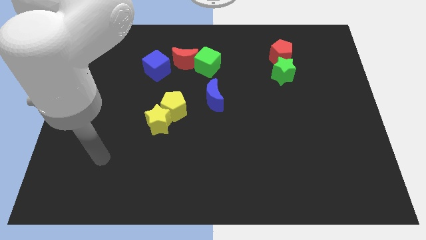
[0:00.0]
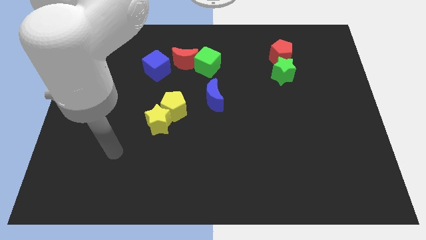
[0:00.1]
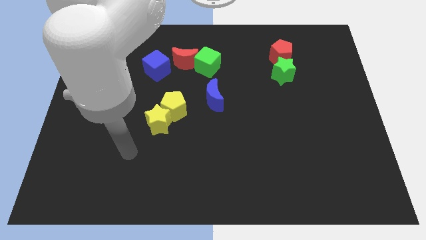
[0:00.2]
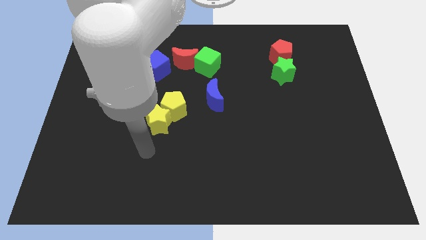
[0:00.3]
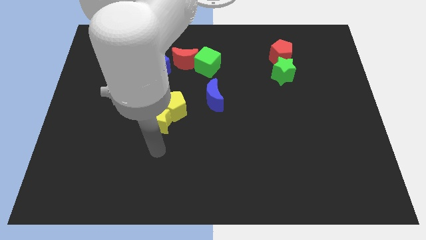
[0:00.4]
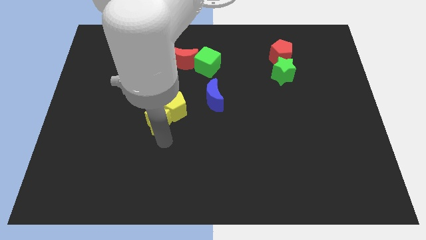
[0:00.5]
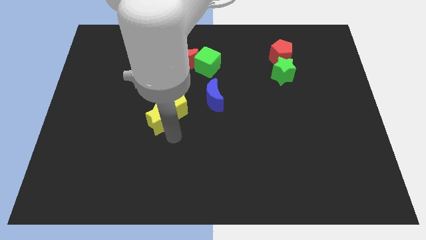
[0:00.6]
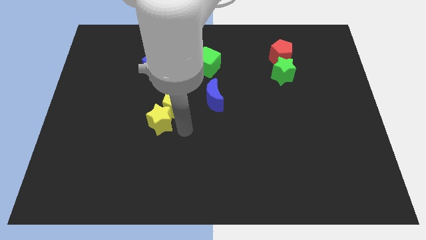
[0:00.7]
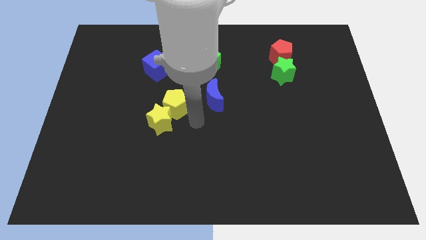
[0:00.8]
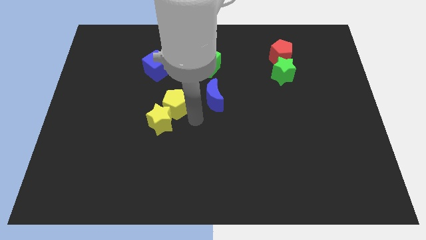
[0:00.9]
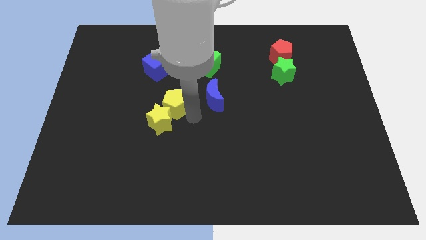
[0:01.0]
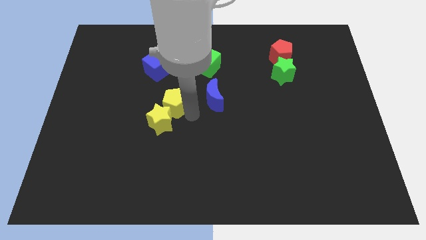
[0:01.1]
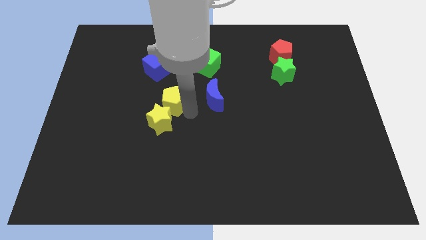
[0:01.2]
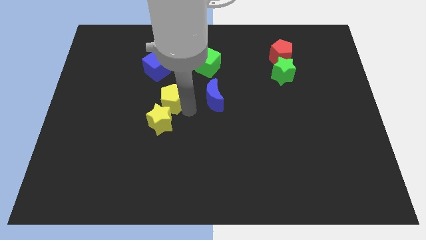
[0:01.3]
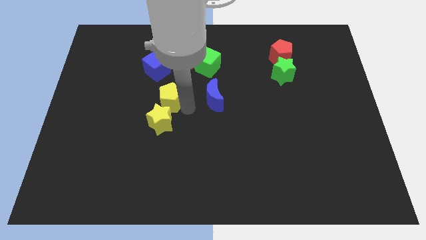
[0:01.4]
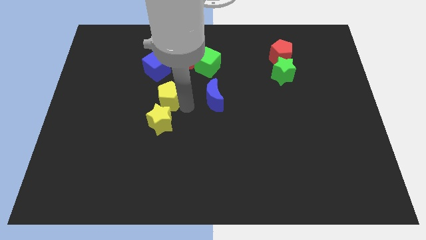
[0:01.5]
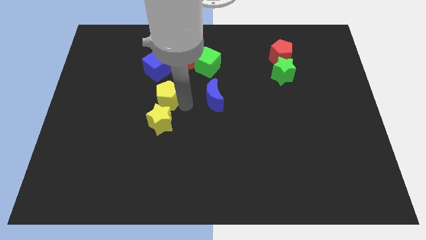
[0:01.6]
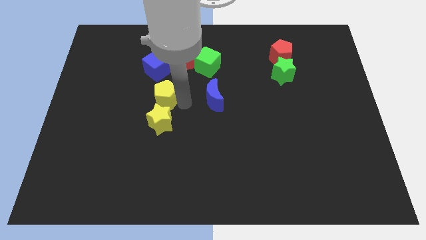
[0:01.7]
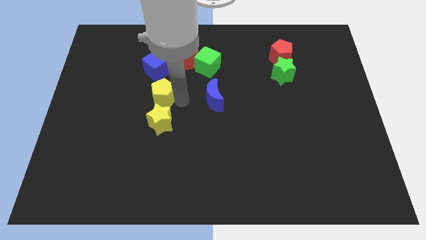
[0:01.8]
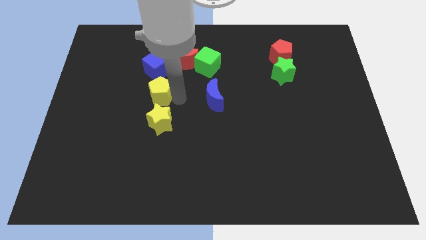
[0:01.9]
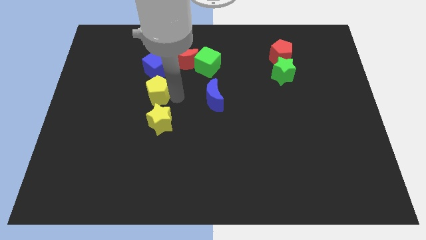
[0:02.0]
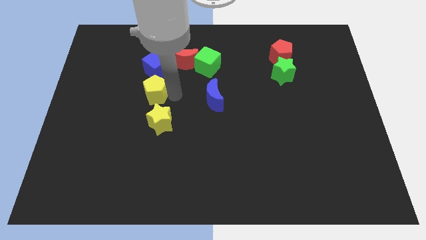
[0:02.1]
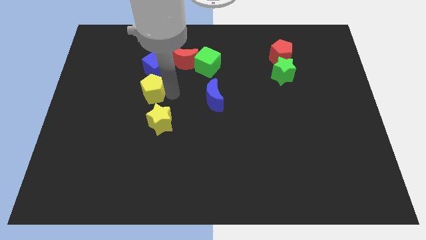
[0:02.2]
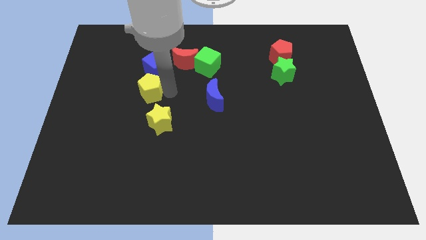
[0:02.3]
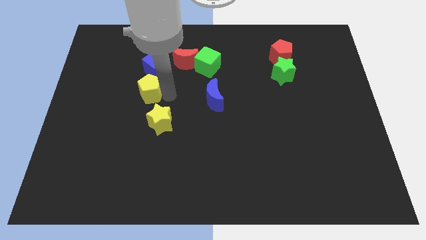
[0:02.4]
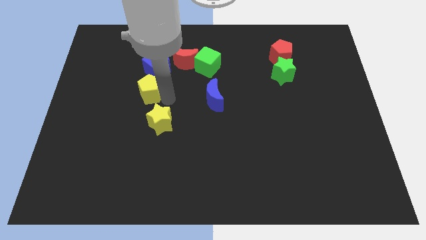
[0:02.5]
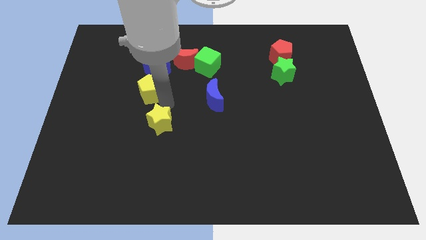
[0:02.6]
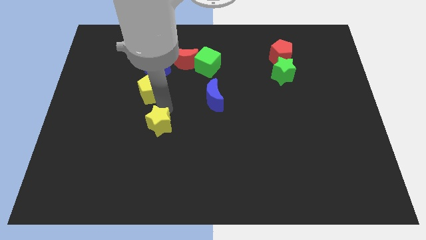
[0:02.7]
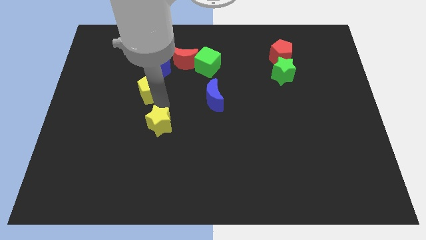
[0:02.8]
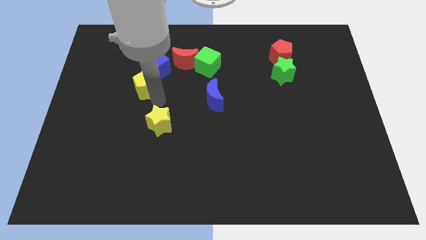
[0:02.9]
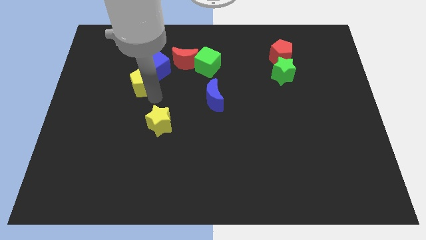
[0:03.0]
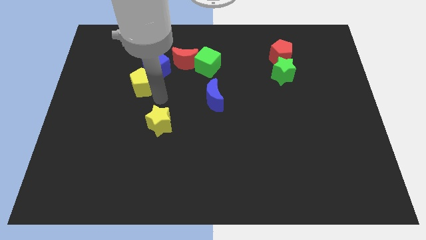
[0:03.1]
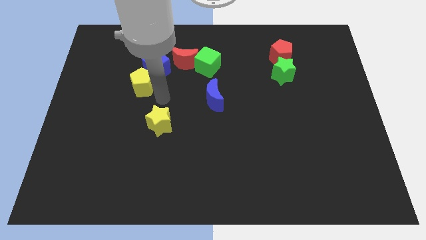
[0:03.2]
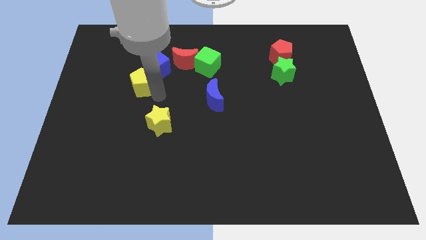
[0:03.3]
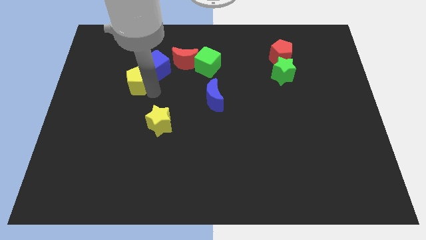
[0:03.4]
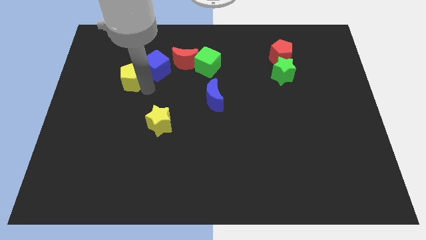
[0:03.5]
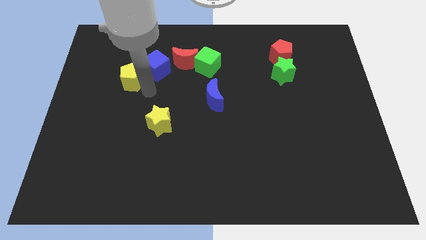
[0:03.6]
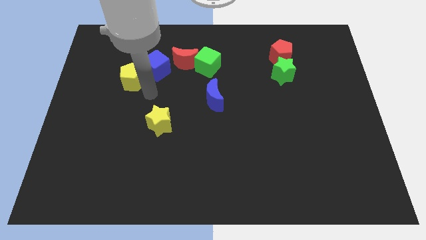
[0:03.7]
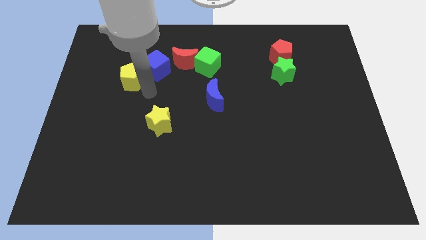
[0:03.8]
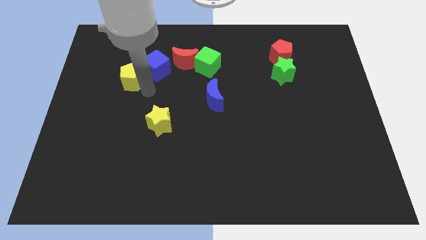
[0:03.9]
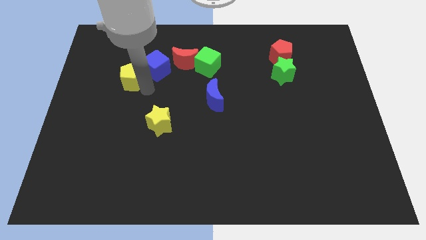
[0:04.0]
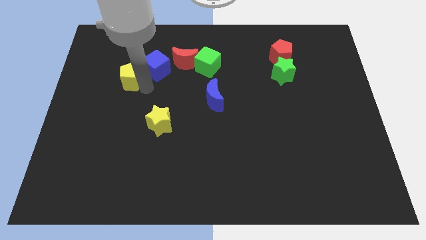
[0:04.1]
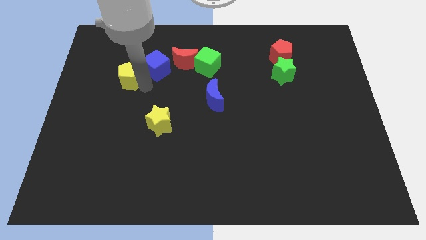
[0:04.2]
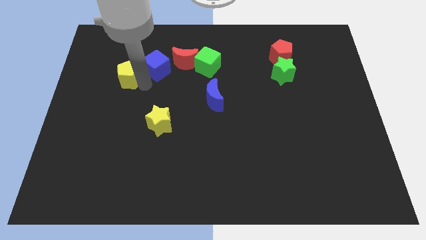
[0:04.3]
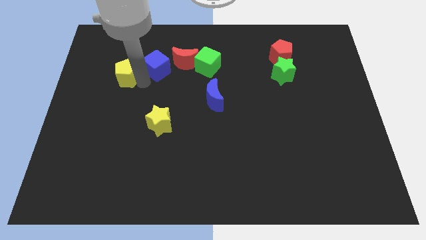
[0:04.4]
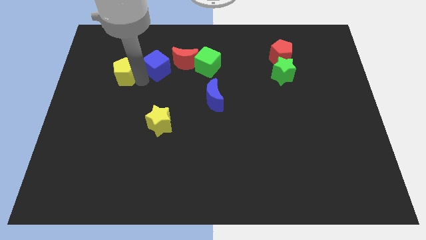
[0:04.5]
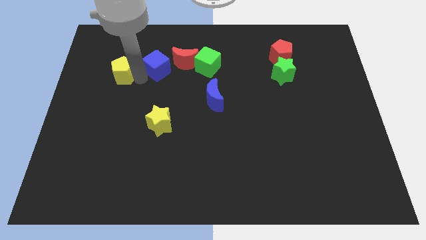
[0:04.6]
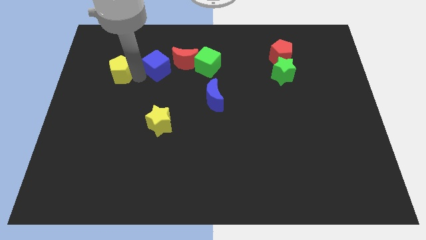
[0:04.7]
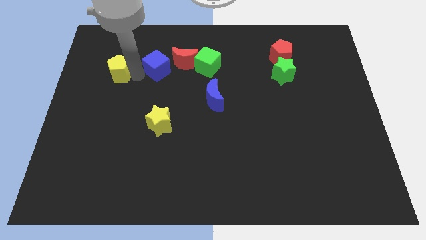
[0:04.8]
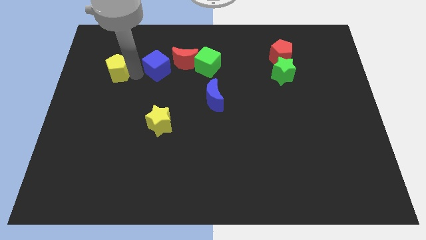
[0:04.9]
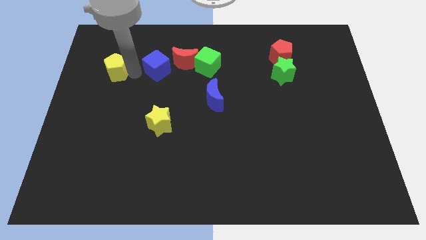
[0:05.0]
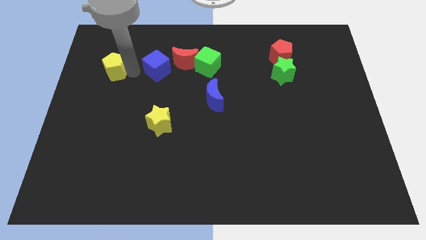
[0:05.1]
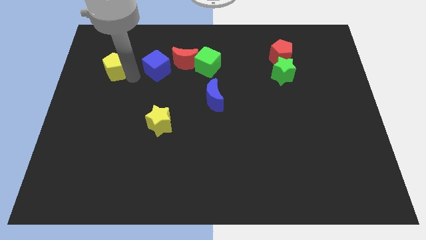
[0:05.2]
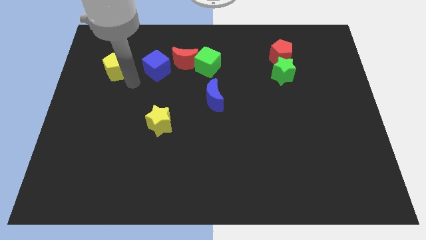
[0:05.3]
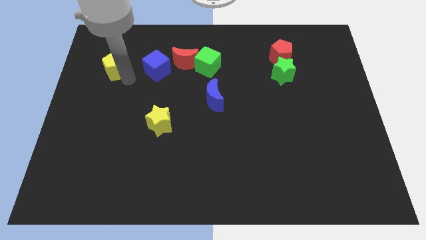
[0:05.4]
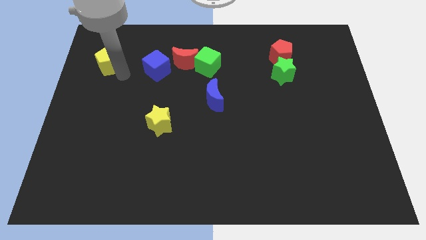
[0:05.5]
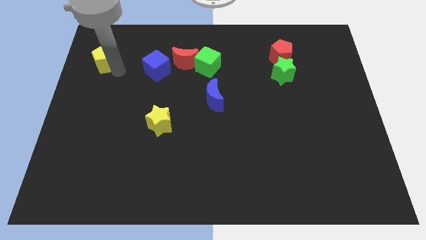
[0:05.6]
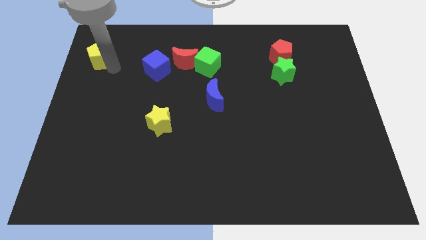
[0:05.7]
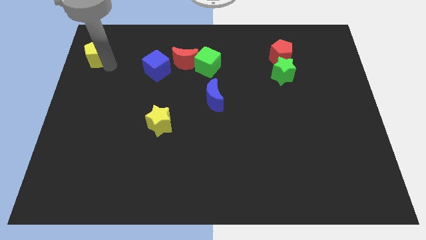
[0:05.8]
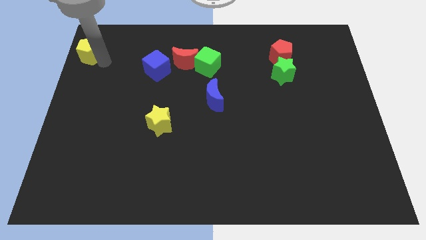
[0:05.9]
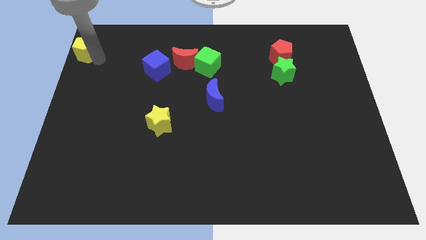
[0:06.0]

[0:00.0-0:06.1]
slide the yellow pentagon to the upper left corner

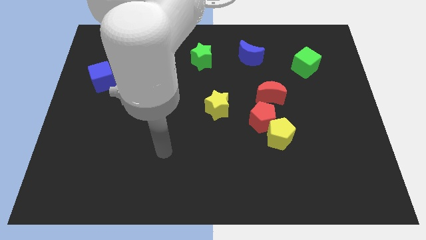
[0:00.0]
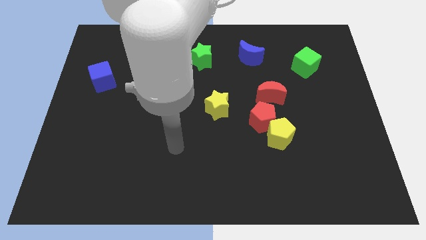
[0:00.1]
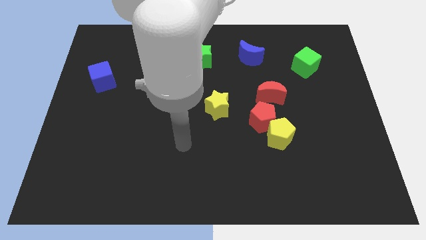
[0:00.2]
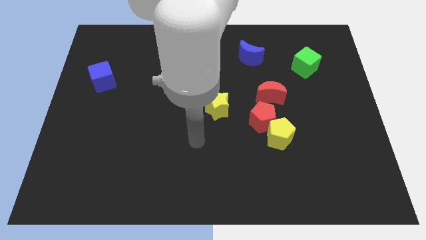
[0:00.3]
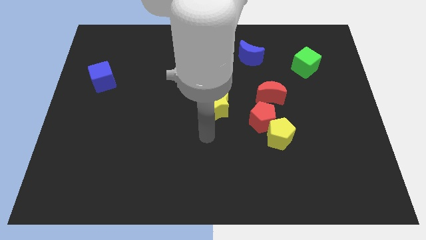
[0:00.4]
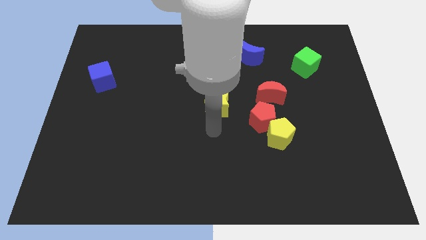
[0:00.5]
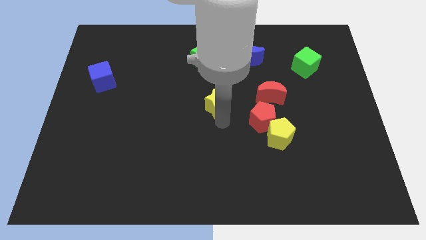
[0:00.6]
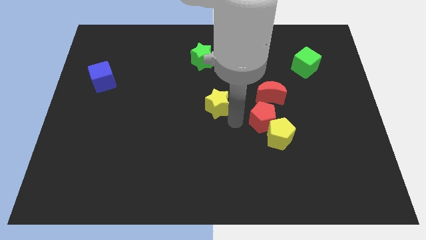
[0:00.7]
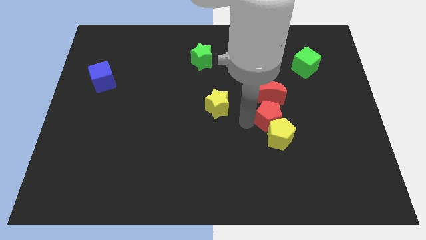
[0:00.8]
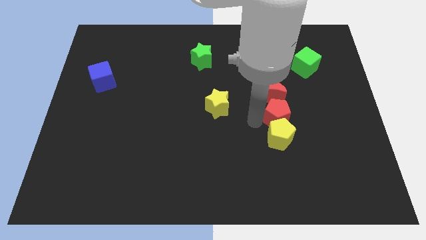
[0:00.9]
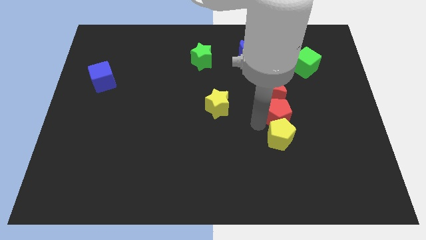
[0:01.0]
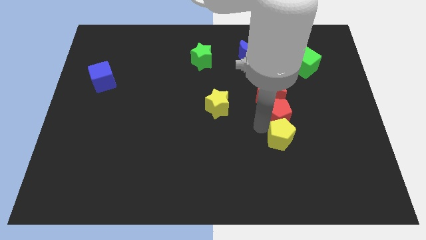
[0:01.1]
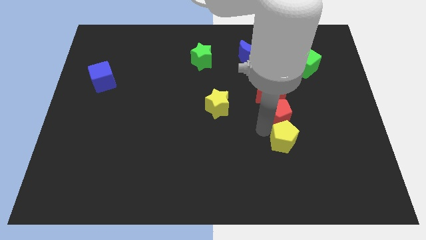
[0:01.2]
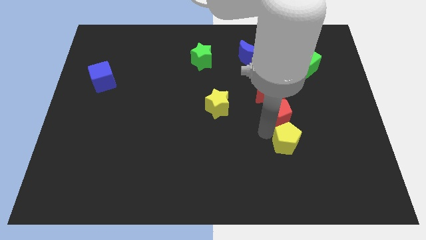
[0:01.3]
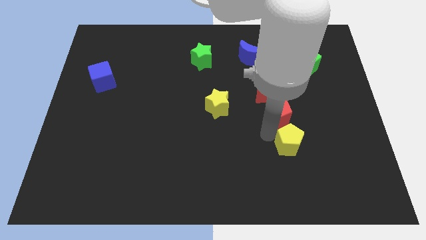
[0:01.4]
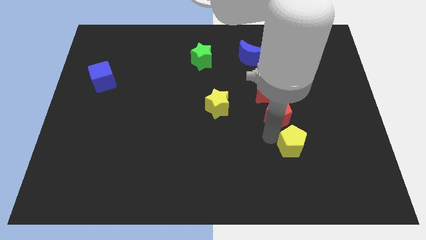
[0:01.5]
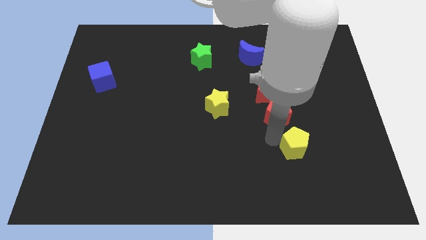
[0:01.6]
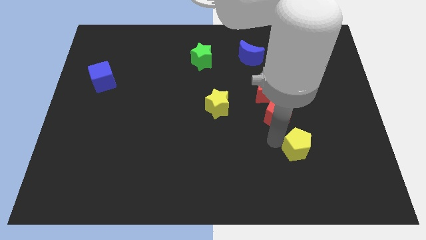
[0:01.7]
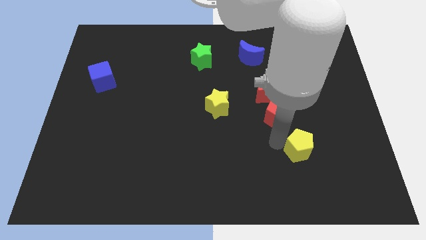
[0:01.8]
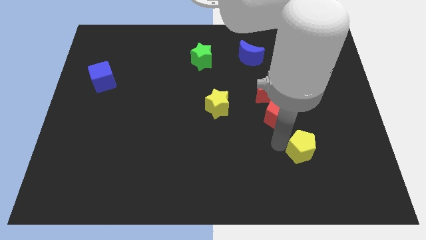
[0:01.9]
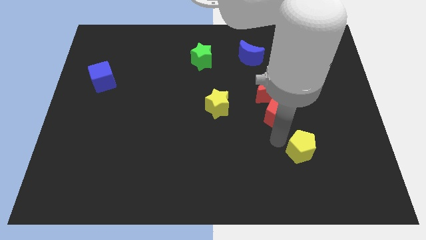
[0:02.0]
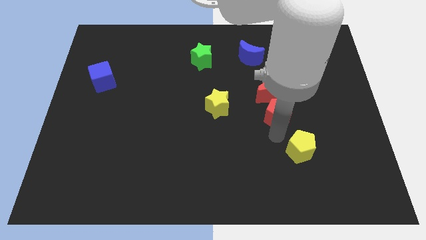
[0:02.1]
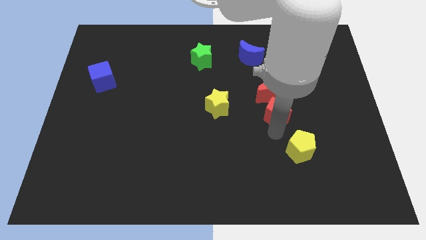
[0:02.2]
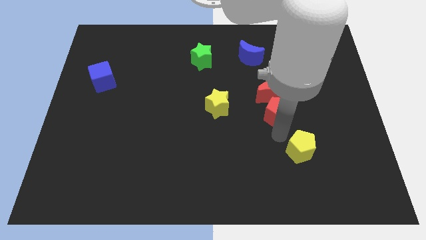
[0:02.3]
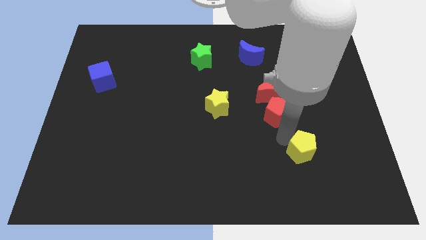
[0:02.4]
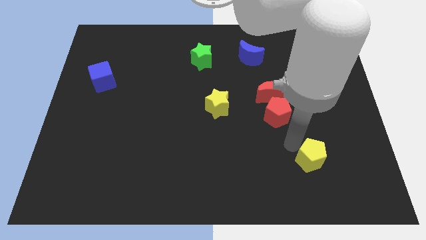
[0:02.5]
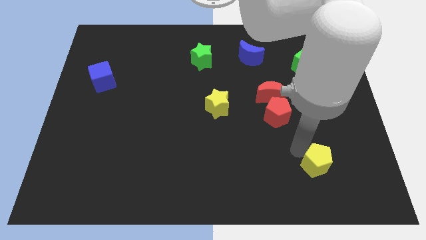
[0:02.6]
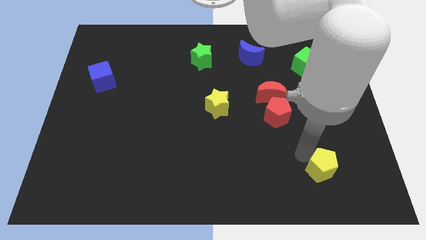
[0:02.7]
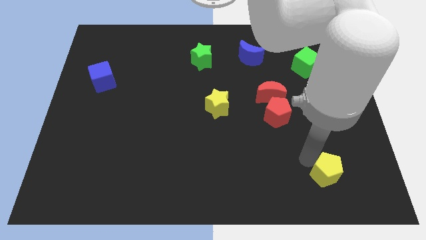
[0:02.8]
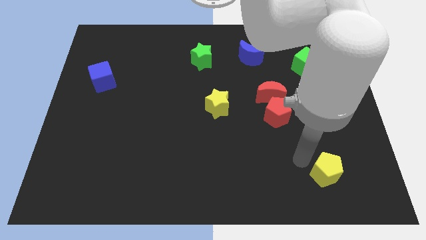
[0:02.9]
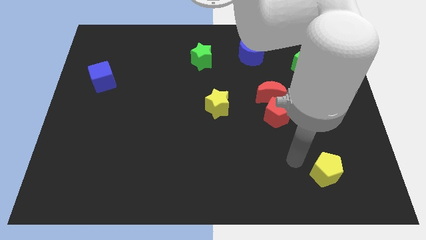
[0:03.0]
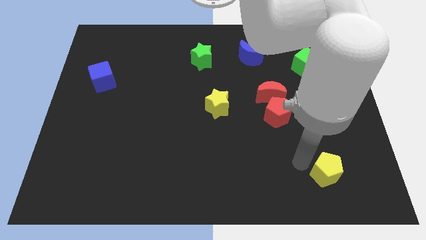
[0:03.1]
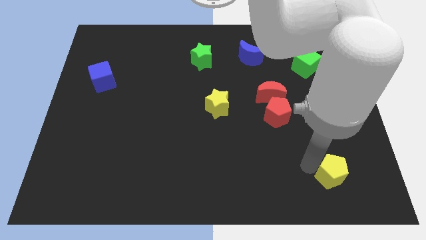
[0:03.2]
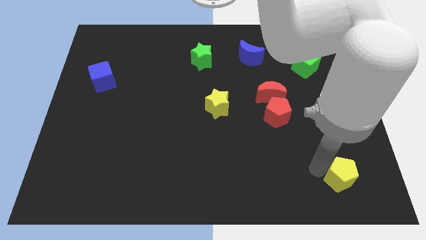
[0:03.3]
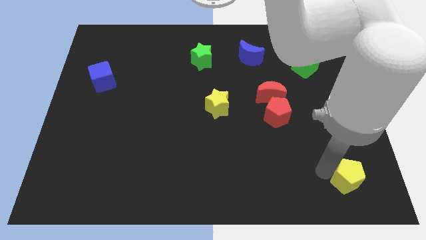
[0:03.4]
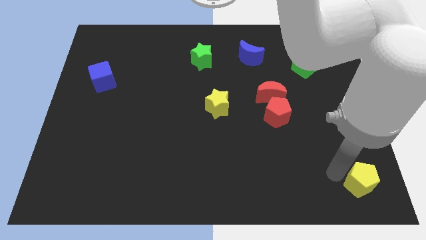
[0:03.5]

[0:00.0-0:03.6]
move the yellow pentagon to the bottom right corner
